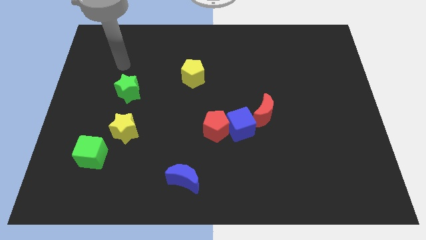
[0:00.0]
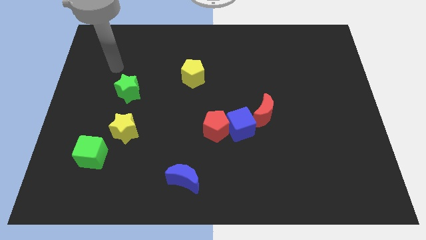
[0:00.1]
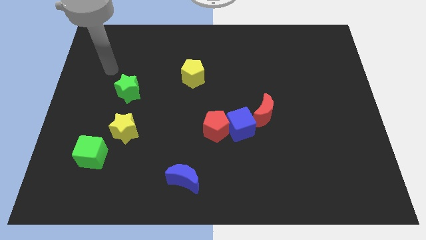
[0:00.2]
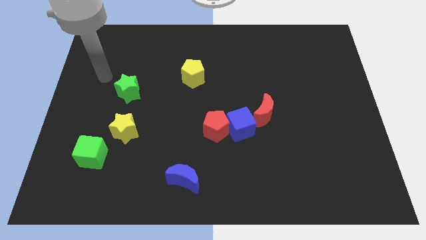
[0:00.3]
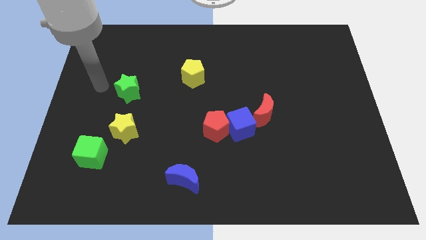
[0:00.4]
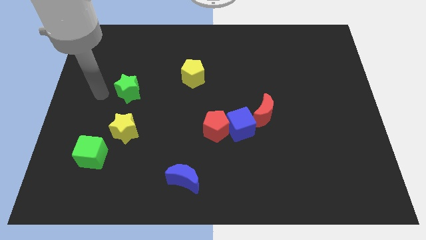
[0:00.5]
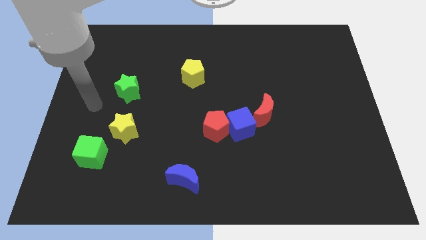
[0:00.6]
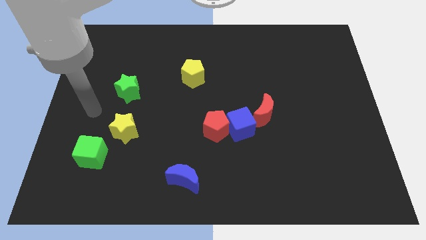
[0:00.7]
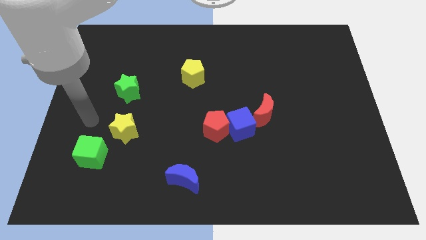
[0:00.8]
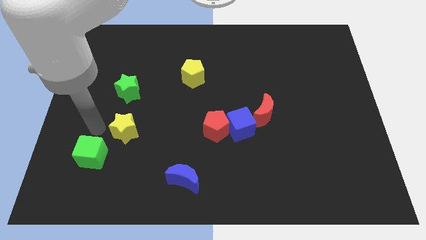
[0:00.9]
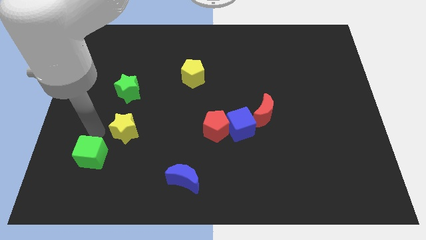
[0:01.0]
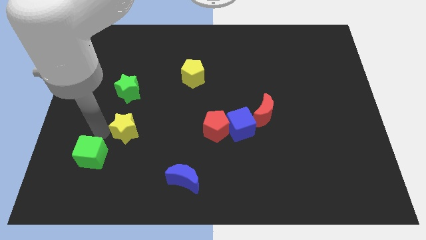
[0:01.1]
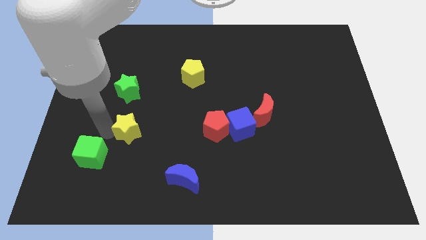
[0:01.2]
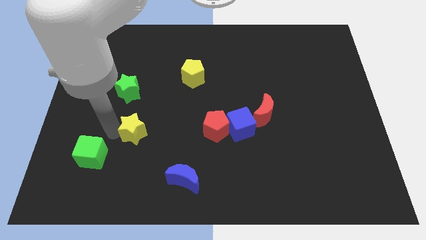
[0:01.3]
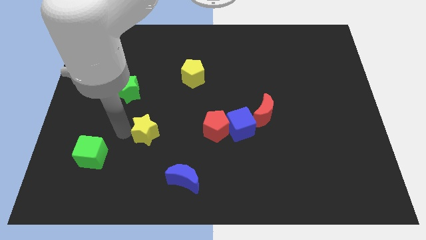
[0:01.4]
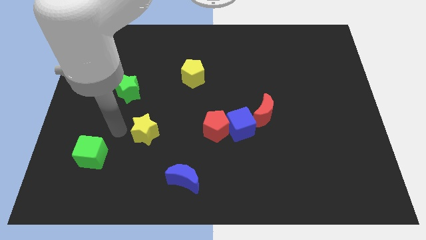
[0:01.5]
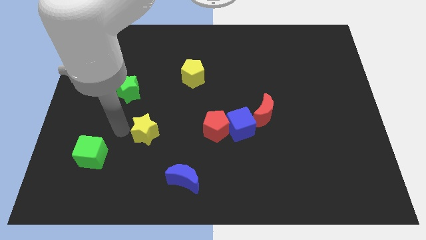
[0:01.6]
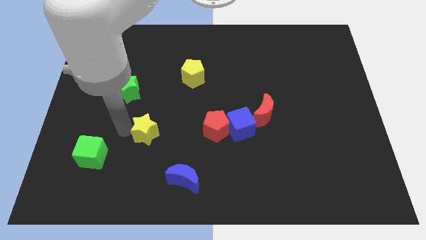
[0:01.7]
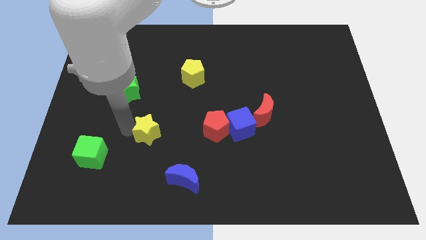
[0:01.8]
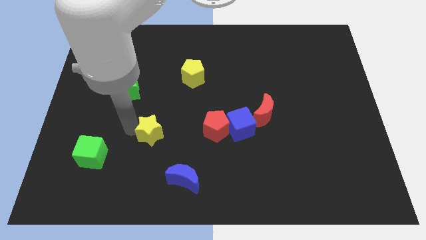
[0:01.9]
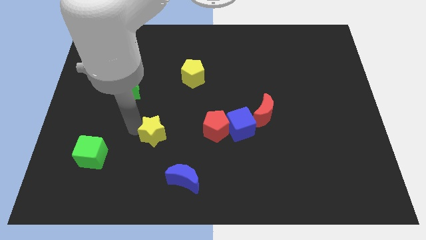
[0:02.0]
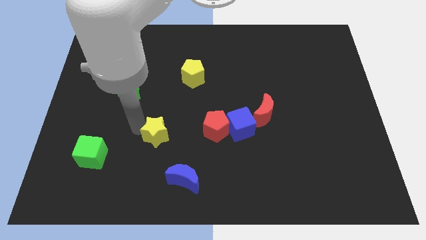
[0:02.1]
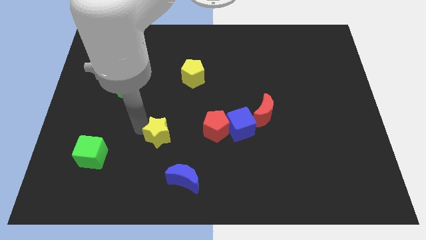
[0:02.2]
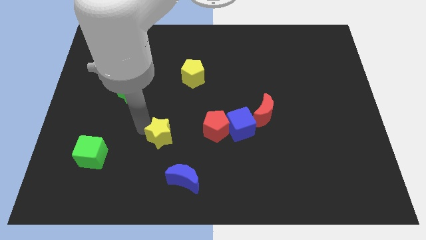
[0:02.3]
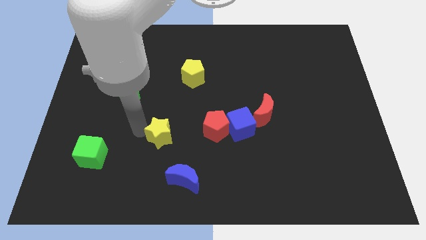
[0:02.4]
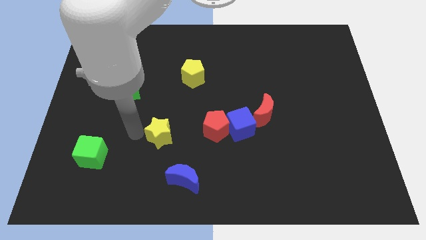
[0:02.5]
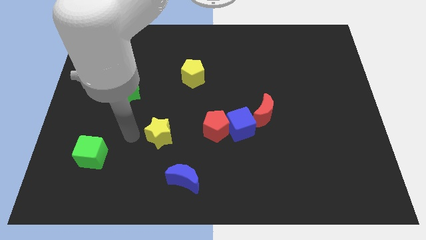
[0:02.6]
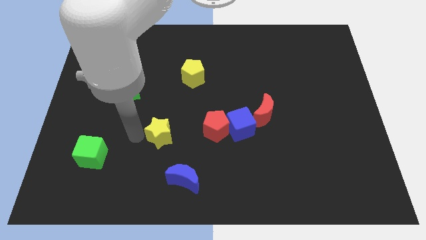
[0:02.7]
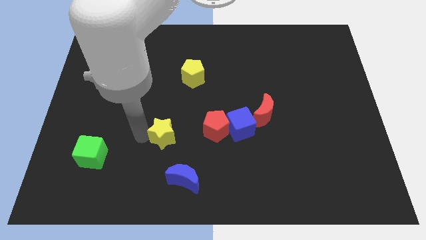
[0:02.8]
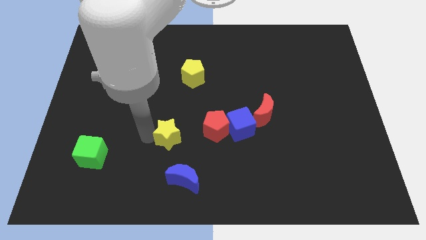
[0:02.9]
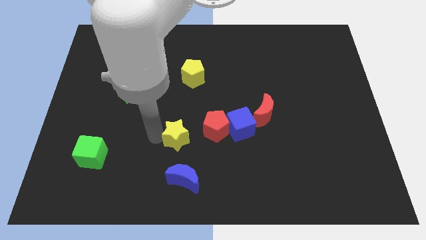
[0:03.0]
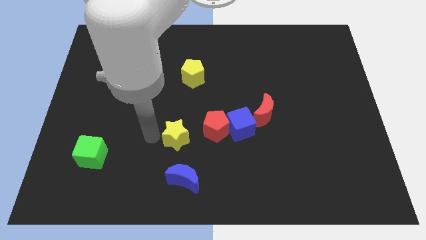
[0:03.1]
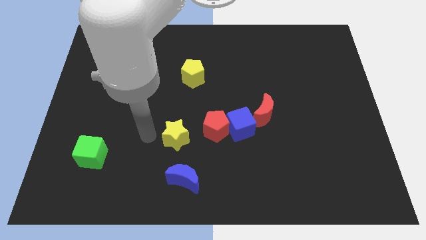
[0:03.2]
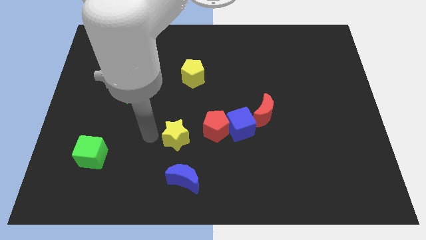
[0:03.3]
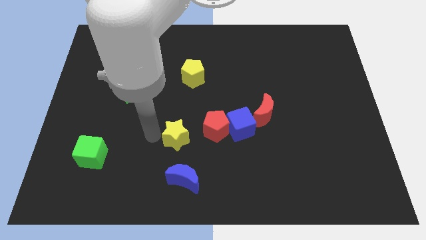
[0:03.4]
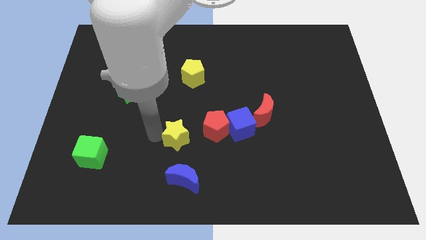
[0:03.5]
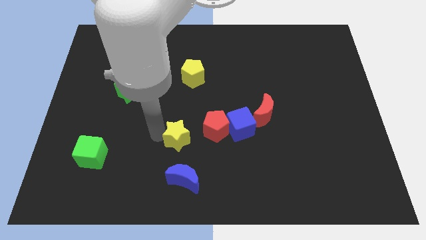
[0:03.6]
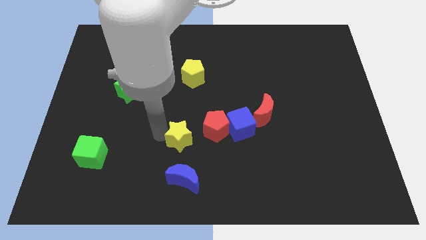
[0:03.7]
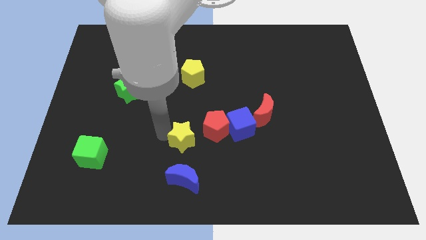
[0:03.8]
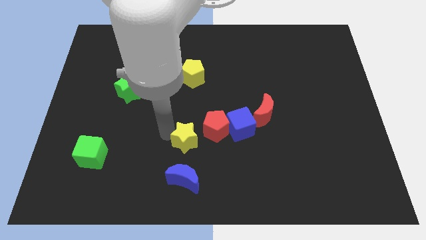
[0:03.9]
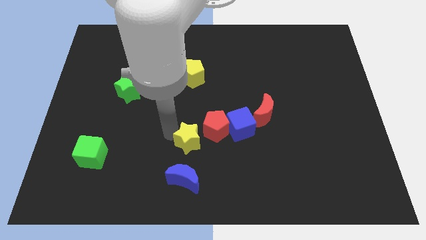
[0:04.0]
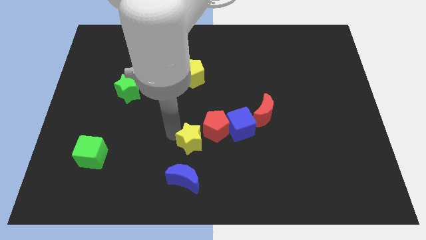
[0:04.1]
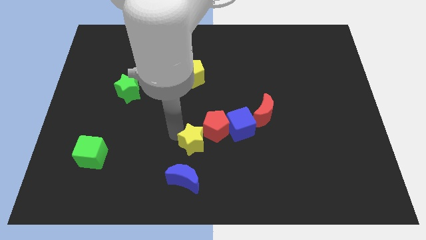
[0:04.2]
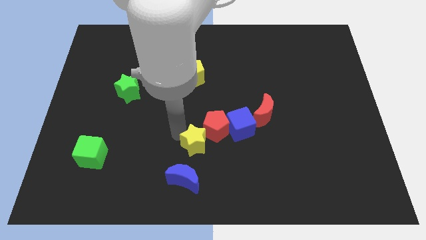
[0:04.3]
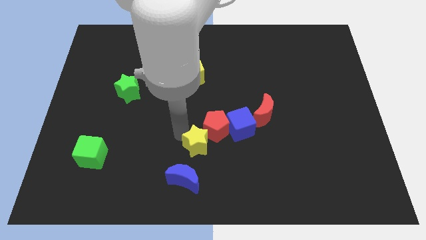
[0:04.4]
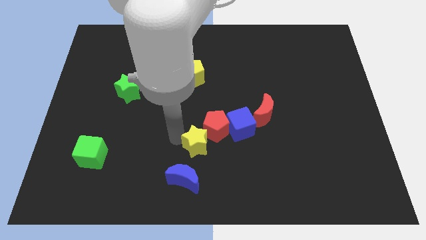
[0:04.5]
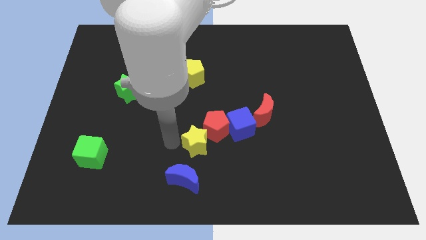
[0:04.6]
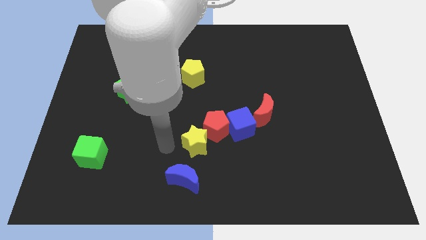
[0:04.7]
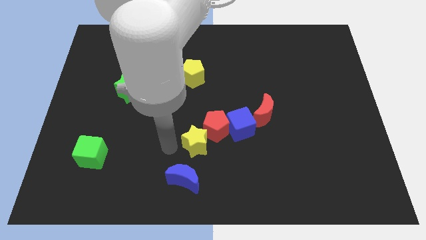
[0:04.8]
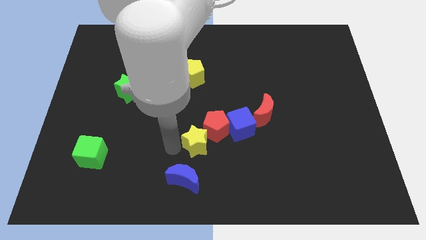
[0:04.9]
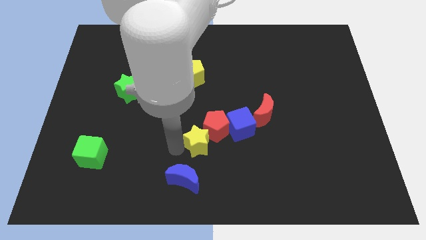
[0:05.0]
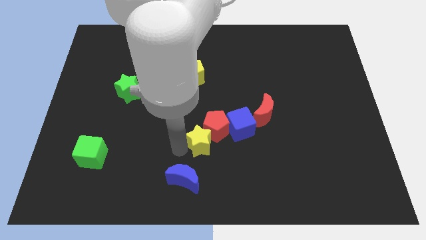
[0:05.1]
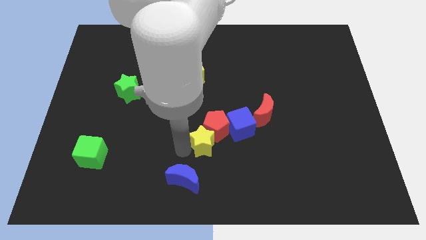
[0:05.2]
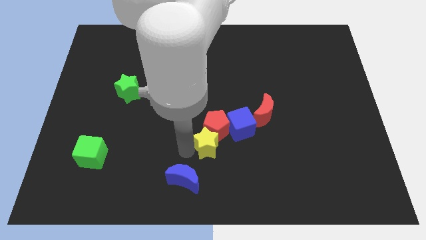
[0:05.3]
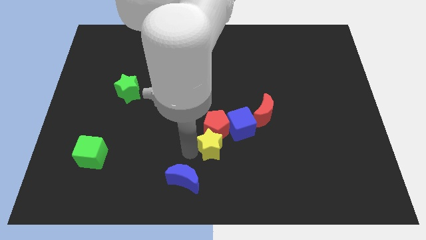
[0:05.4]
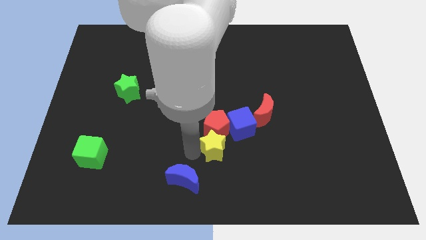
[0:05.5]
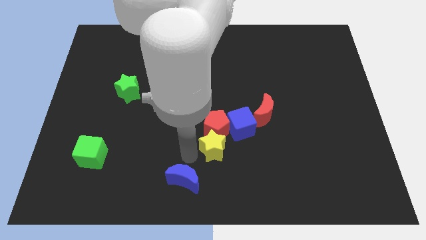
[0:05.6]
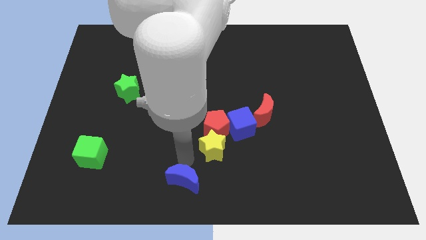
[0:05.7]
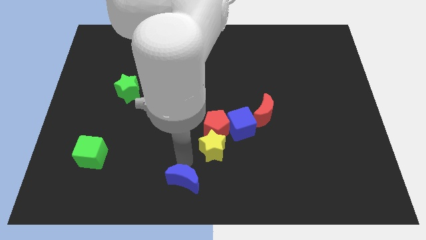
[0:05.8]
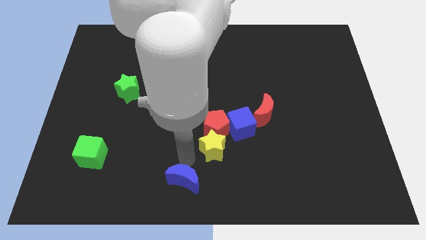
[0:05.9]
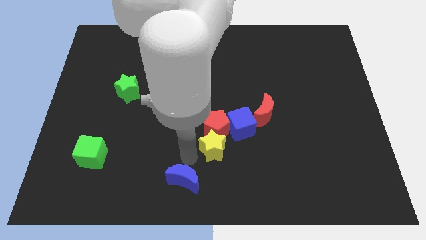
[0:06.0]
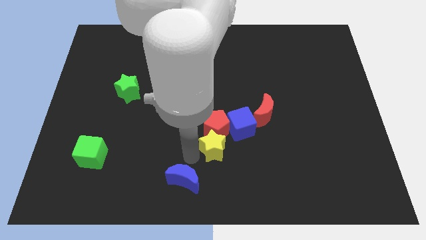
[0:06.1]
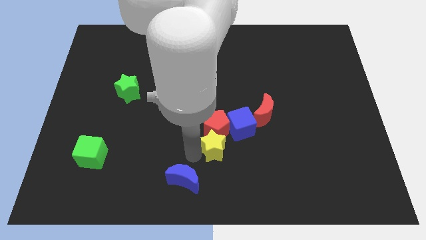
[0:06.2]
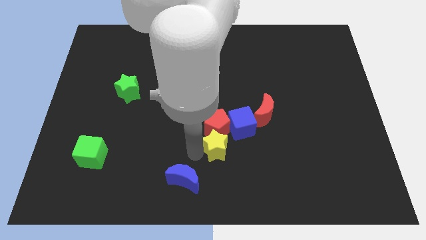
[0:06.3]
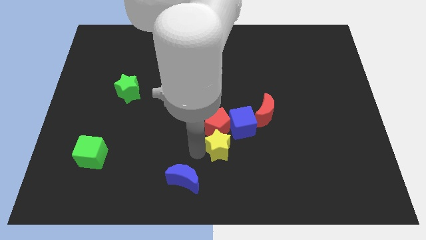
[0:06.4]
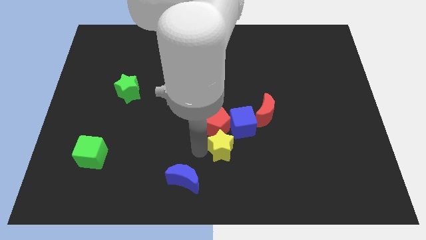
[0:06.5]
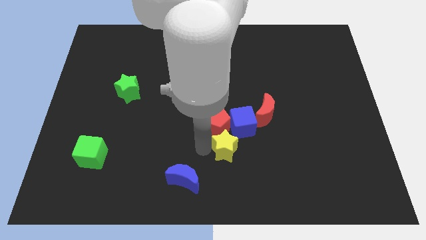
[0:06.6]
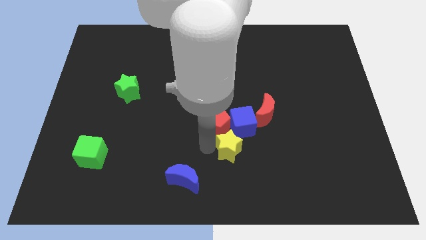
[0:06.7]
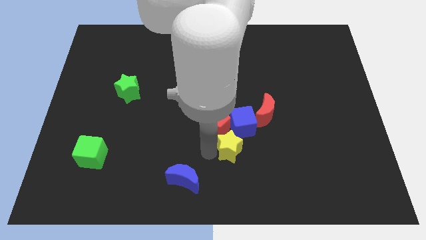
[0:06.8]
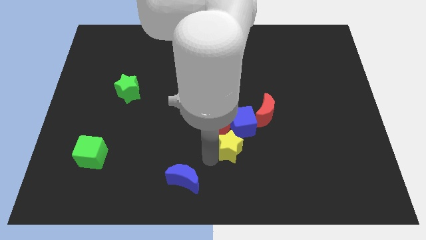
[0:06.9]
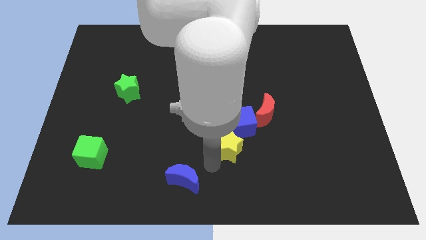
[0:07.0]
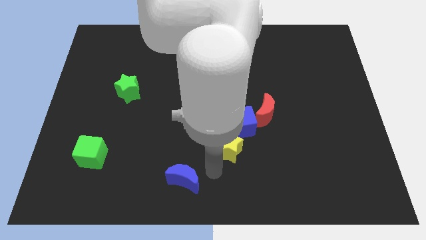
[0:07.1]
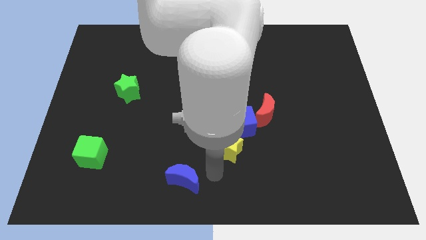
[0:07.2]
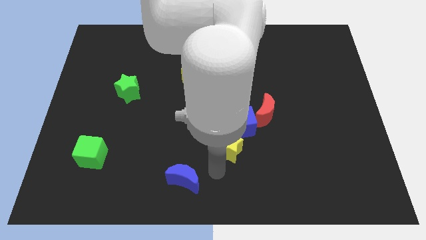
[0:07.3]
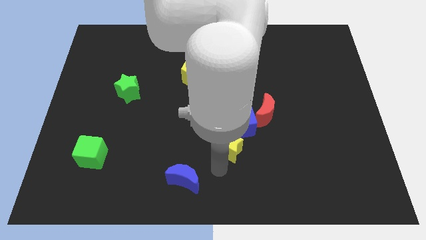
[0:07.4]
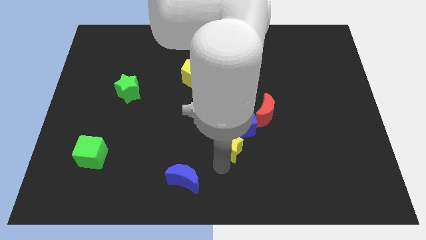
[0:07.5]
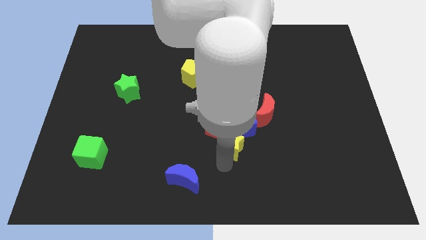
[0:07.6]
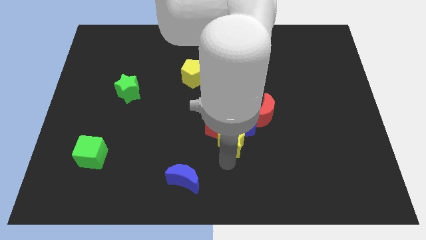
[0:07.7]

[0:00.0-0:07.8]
push the yellow star close to the blue cube
